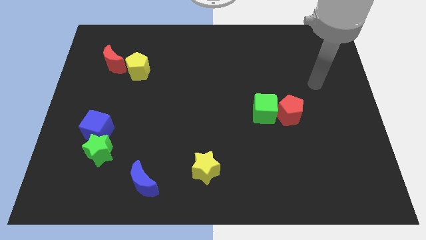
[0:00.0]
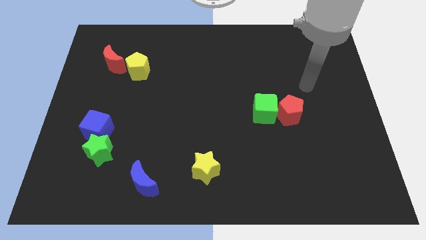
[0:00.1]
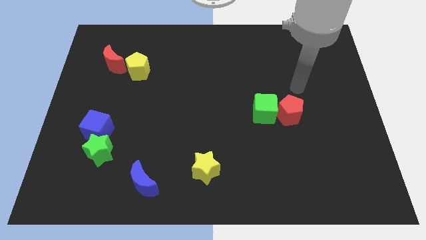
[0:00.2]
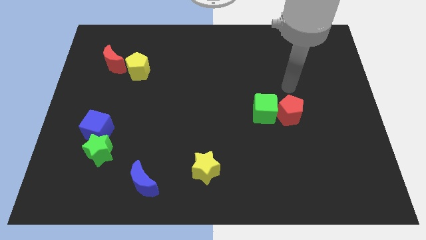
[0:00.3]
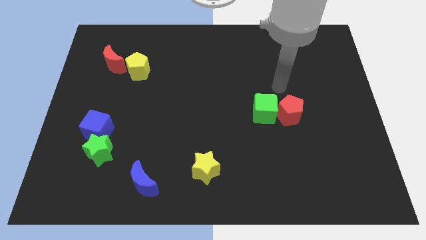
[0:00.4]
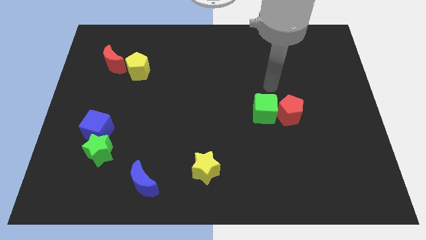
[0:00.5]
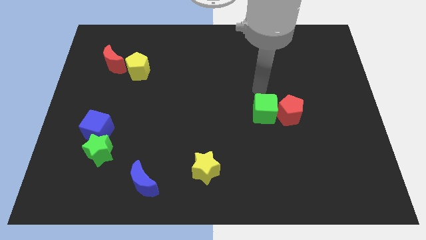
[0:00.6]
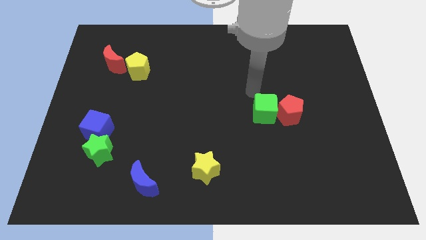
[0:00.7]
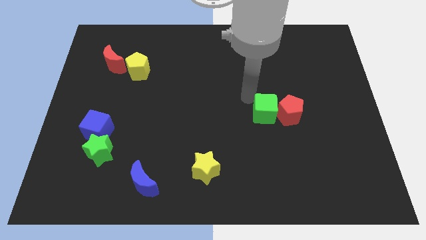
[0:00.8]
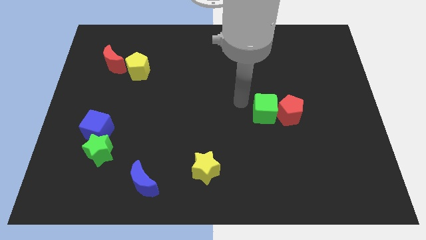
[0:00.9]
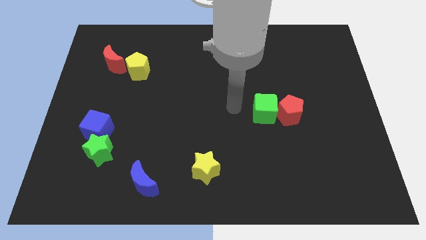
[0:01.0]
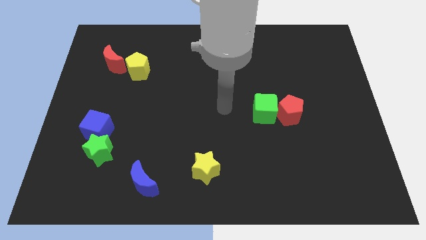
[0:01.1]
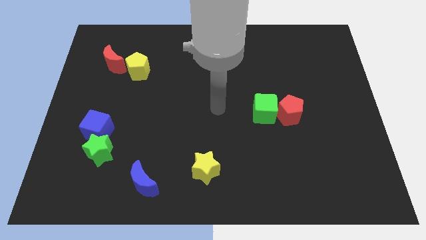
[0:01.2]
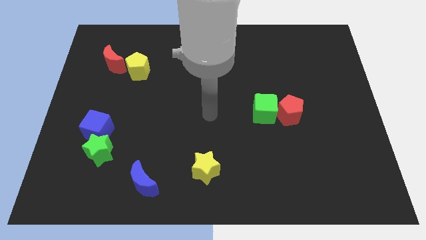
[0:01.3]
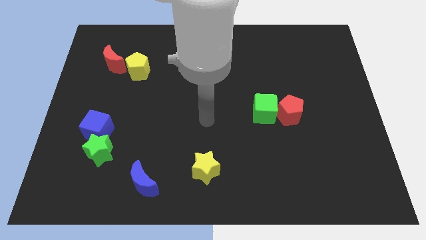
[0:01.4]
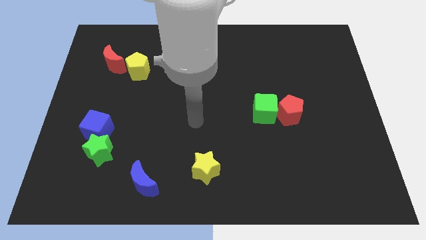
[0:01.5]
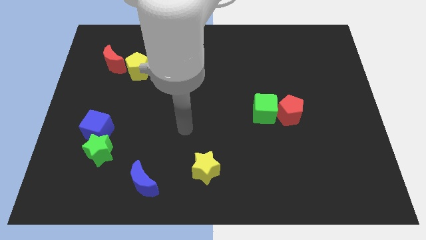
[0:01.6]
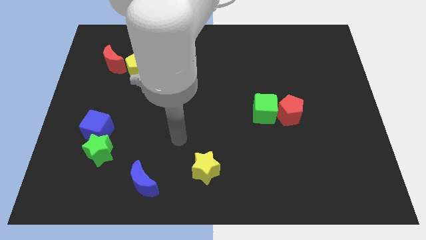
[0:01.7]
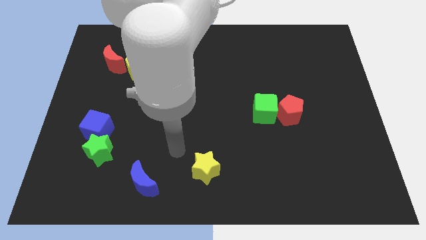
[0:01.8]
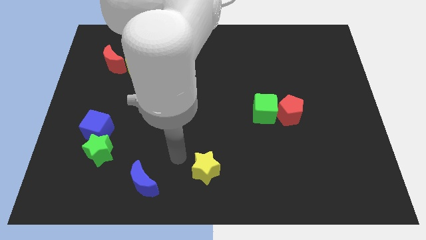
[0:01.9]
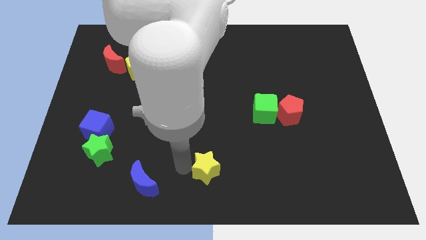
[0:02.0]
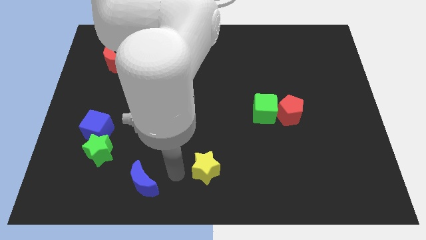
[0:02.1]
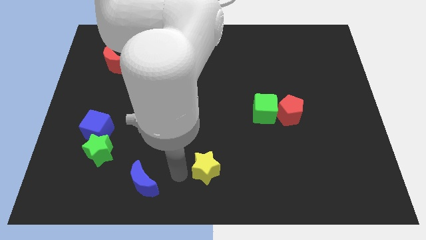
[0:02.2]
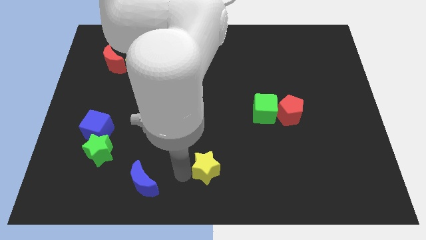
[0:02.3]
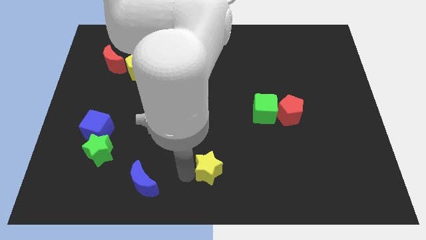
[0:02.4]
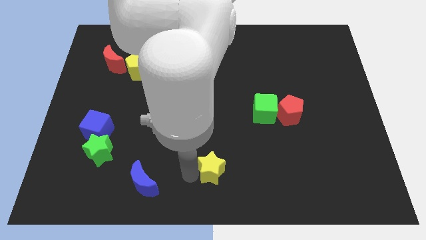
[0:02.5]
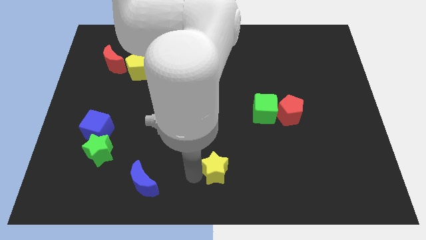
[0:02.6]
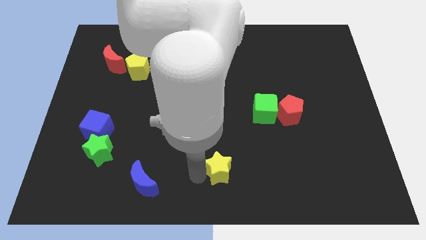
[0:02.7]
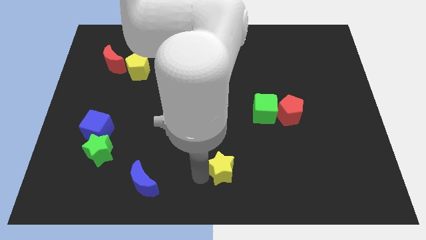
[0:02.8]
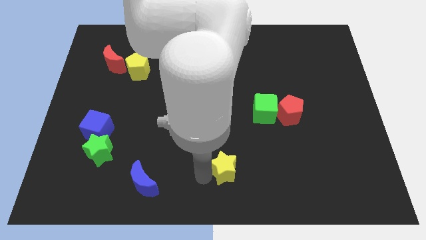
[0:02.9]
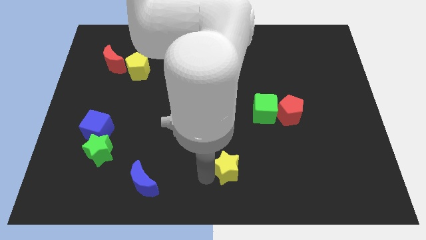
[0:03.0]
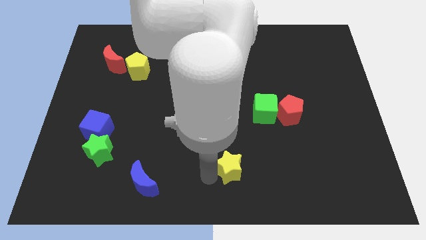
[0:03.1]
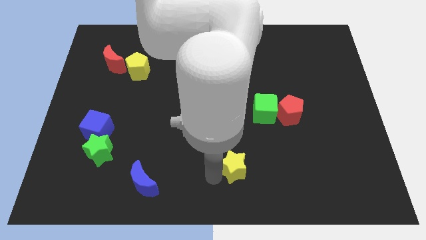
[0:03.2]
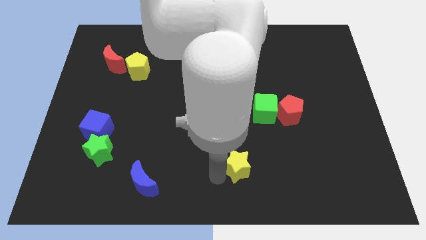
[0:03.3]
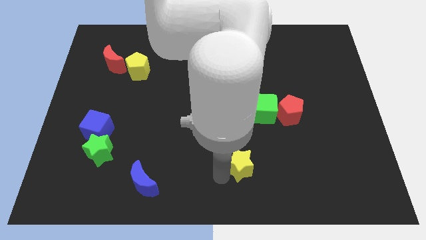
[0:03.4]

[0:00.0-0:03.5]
move the yellow star a little right

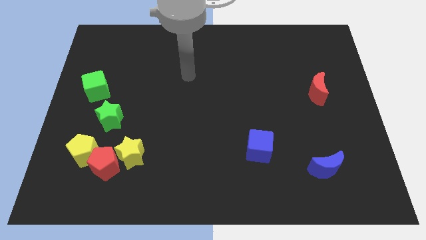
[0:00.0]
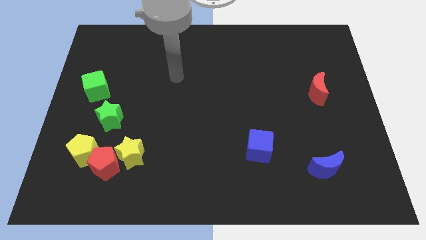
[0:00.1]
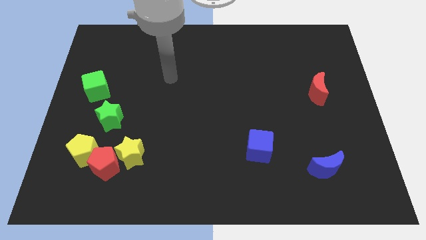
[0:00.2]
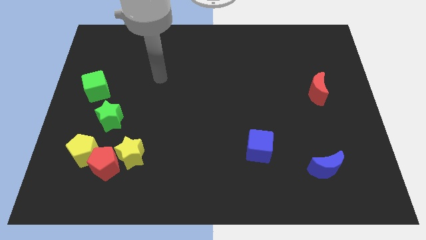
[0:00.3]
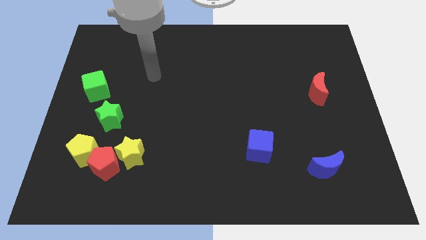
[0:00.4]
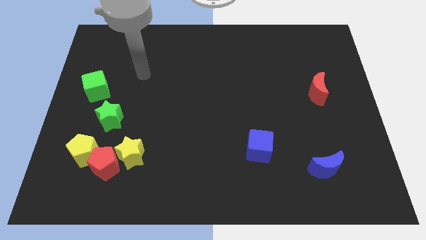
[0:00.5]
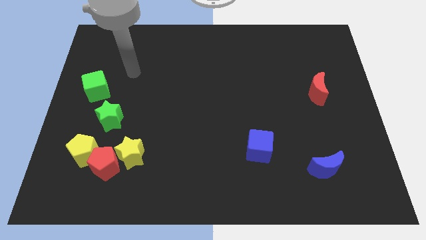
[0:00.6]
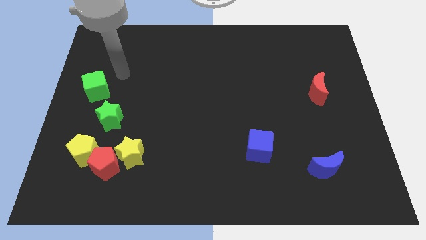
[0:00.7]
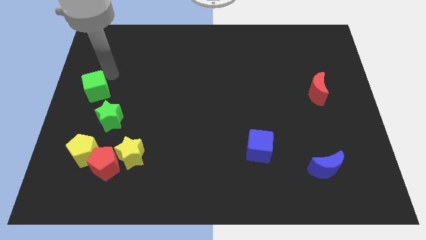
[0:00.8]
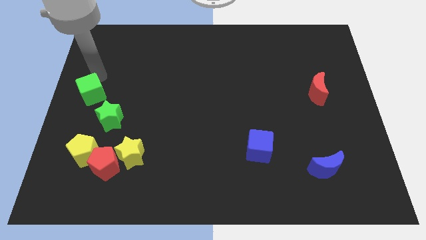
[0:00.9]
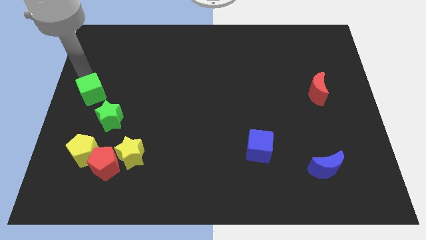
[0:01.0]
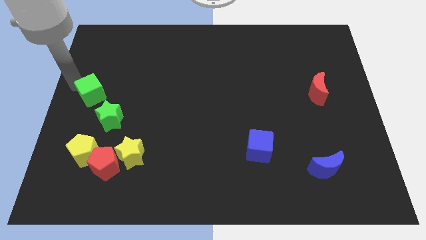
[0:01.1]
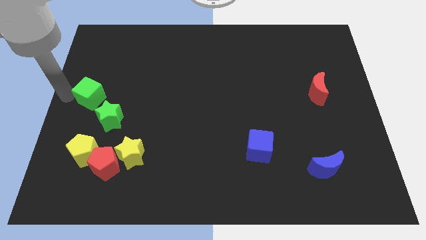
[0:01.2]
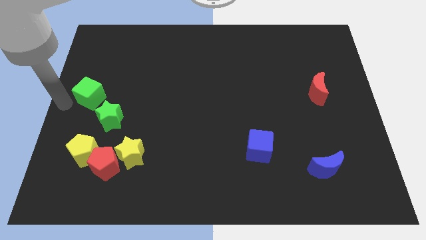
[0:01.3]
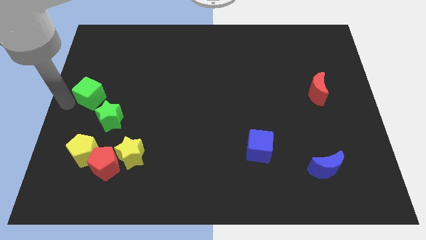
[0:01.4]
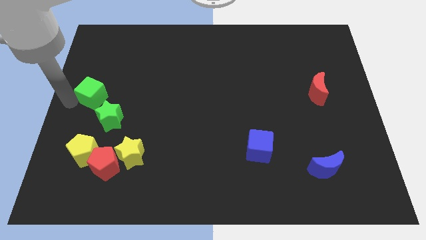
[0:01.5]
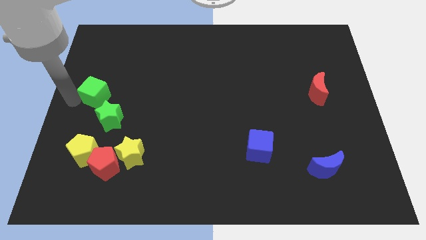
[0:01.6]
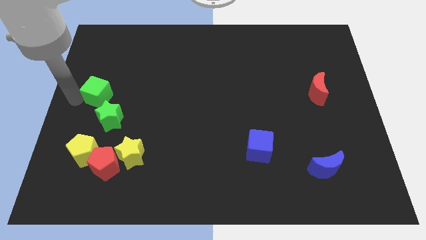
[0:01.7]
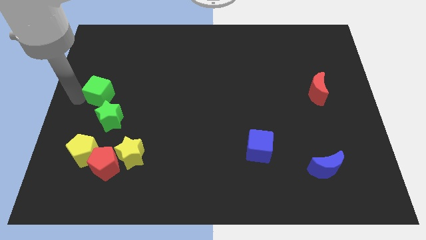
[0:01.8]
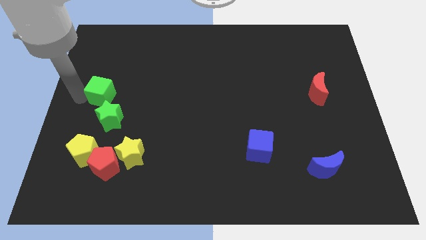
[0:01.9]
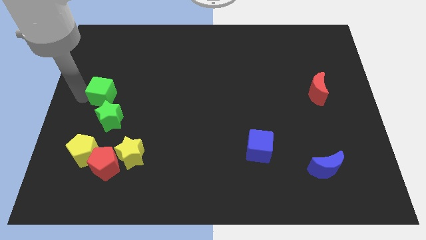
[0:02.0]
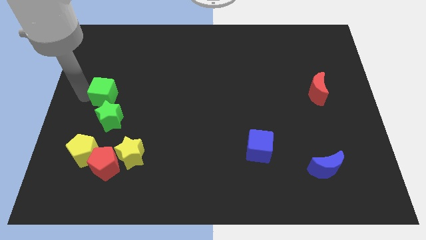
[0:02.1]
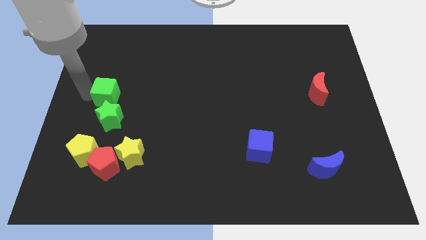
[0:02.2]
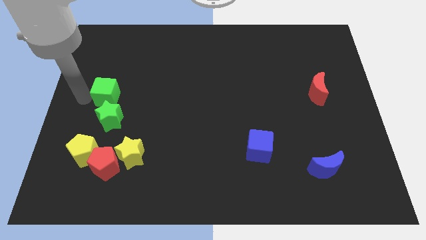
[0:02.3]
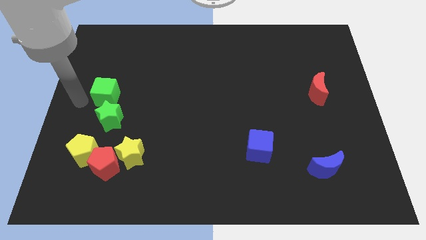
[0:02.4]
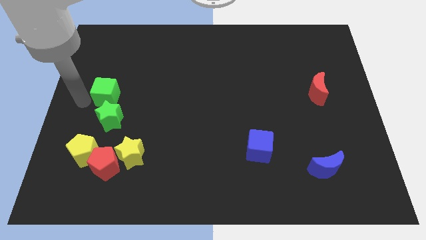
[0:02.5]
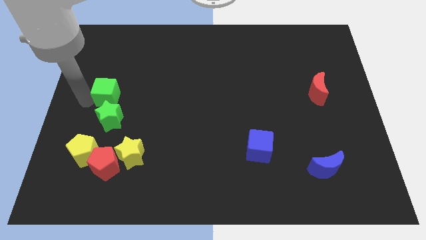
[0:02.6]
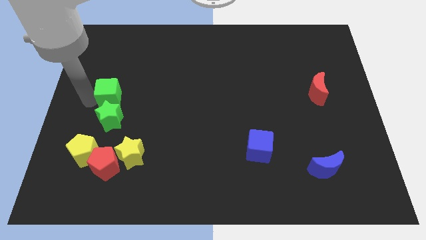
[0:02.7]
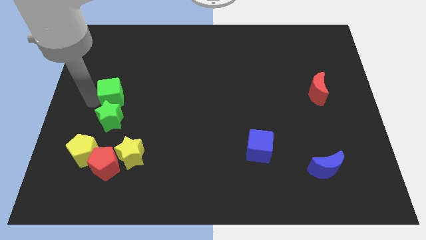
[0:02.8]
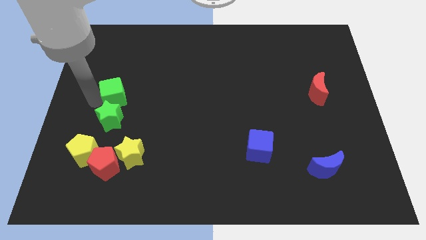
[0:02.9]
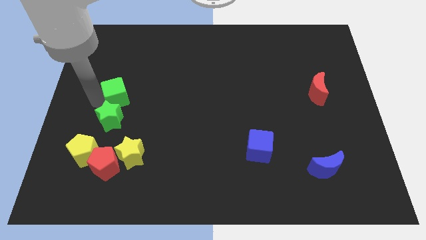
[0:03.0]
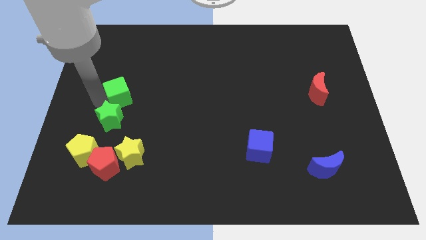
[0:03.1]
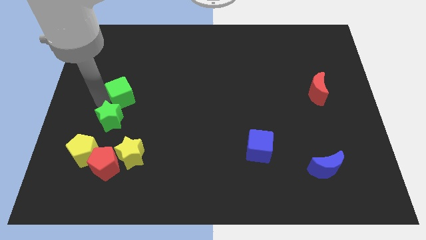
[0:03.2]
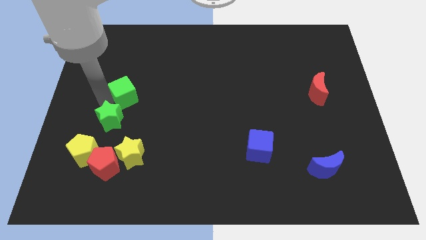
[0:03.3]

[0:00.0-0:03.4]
slightly slide the green cube to the right

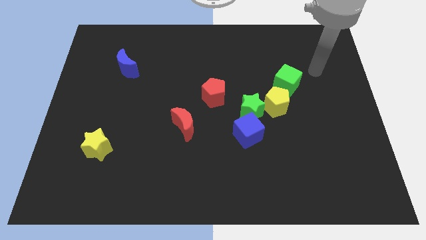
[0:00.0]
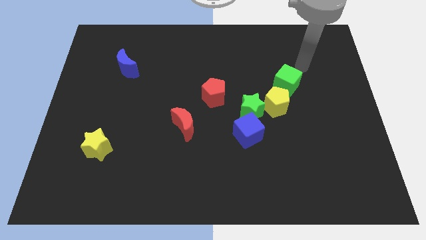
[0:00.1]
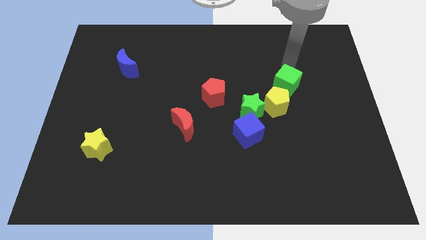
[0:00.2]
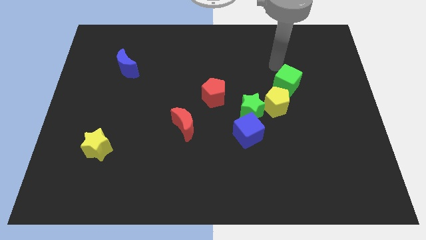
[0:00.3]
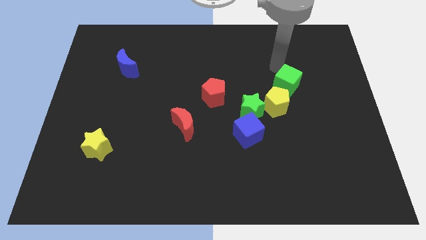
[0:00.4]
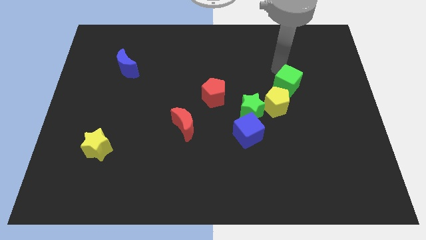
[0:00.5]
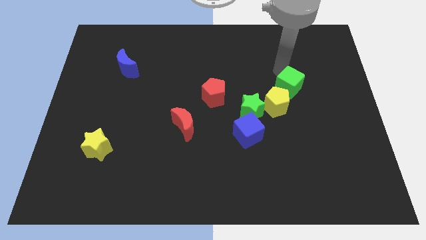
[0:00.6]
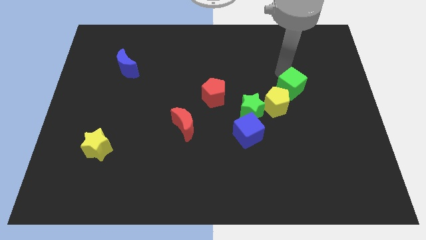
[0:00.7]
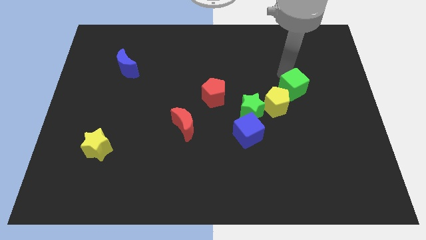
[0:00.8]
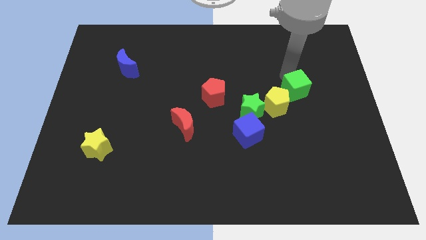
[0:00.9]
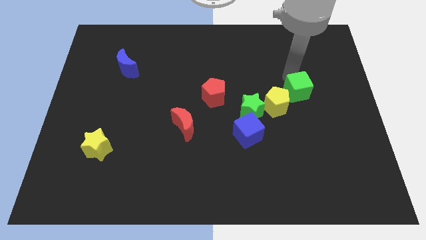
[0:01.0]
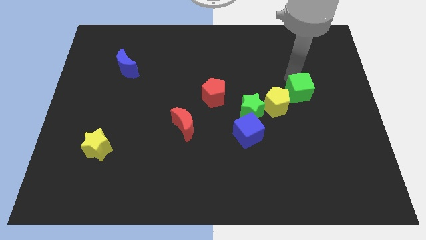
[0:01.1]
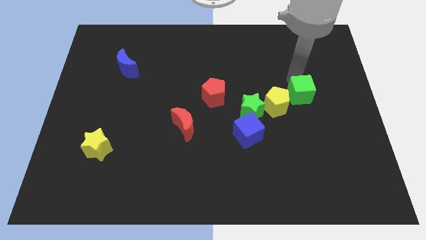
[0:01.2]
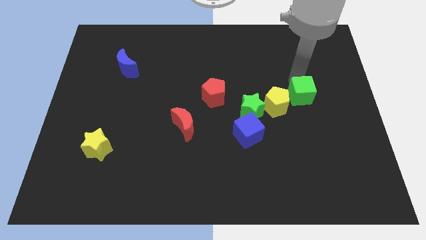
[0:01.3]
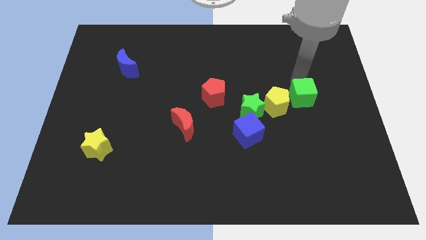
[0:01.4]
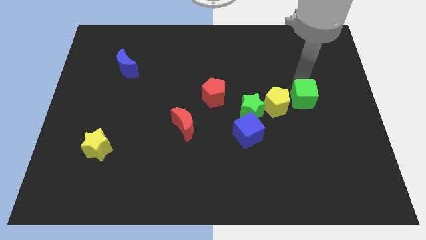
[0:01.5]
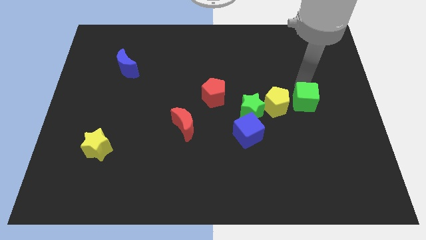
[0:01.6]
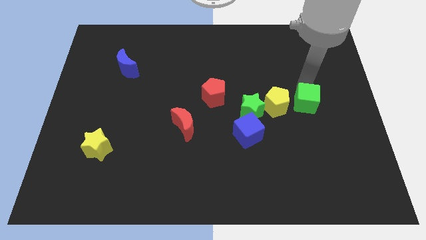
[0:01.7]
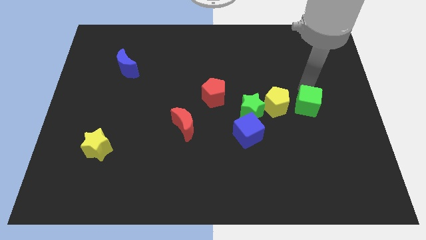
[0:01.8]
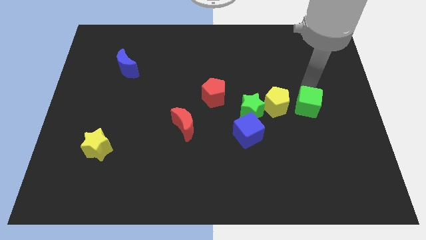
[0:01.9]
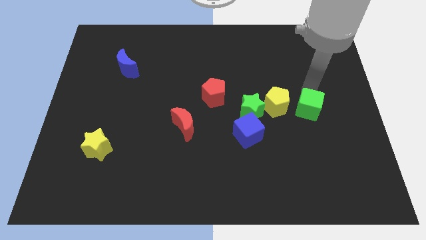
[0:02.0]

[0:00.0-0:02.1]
move the green cube down slightly
